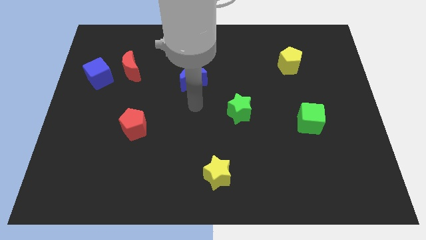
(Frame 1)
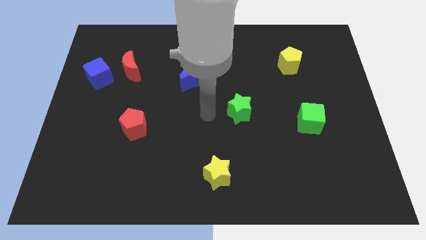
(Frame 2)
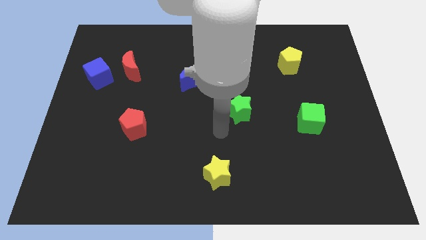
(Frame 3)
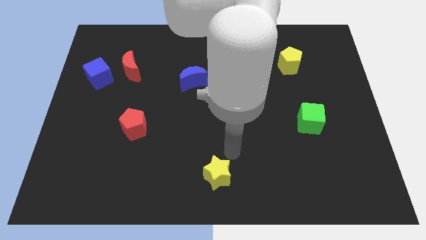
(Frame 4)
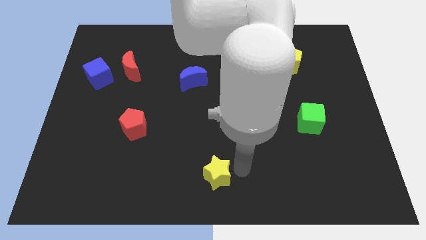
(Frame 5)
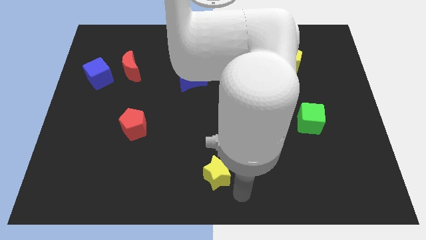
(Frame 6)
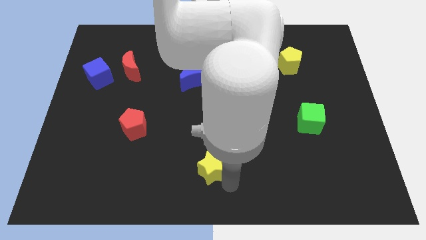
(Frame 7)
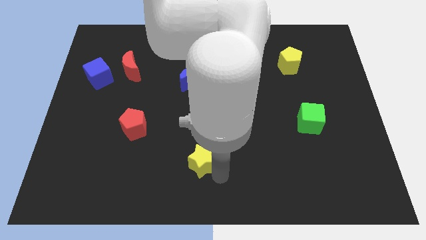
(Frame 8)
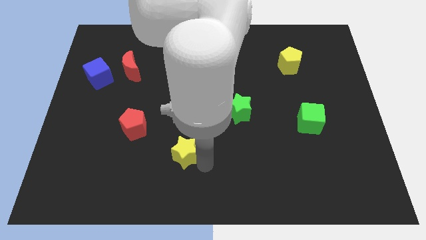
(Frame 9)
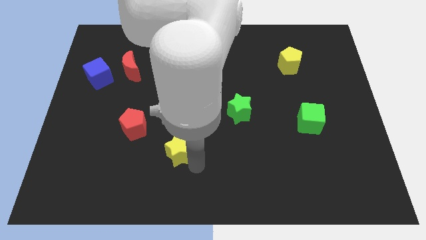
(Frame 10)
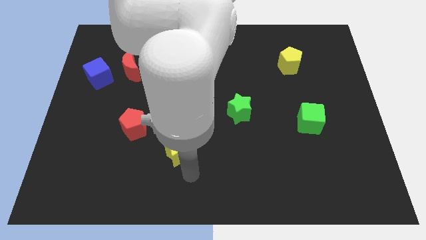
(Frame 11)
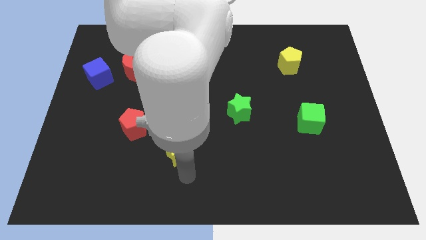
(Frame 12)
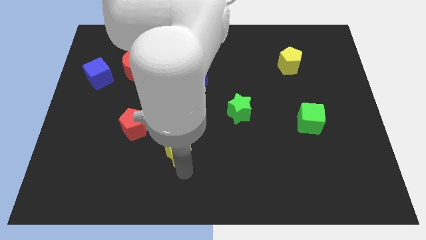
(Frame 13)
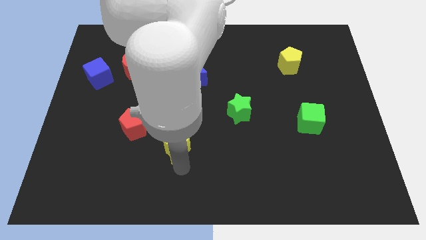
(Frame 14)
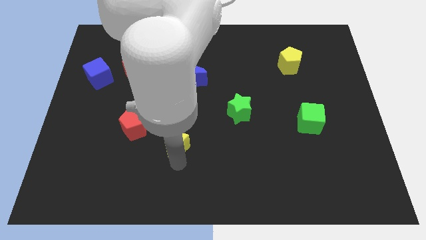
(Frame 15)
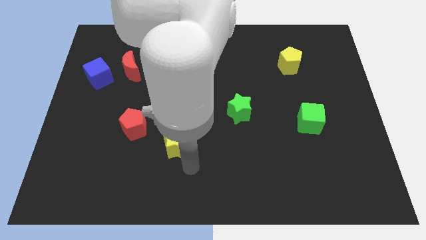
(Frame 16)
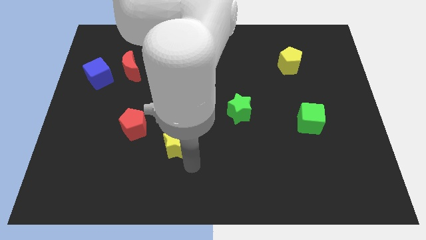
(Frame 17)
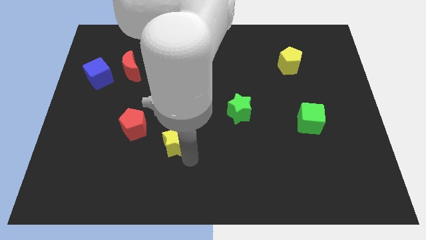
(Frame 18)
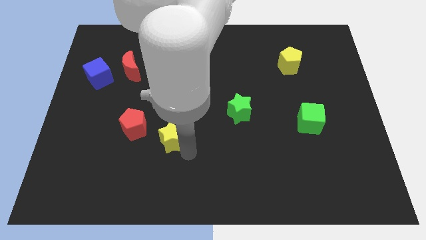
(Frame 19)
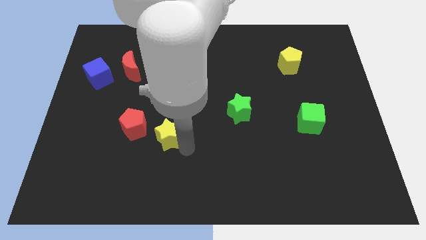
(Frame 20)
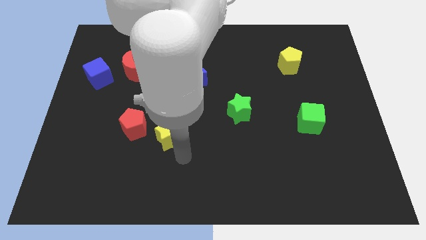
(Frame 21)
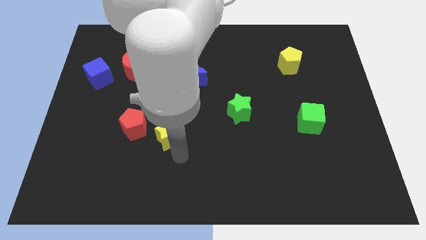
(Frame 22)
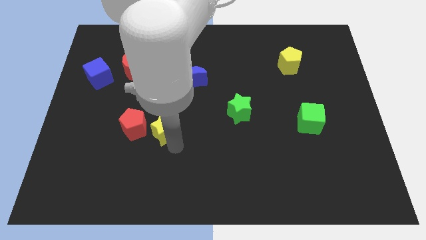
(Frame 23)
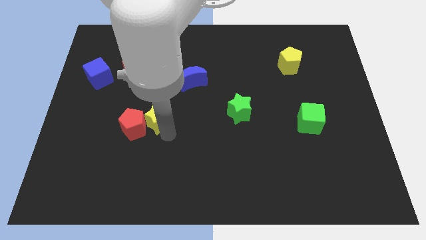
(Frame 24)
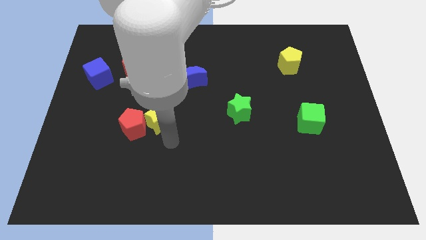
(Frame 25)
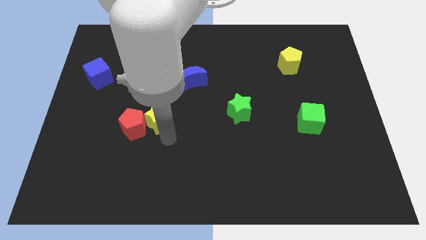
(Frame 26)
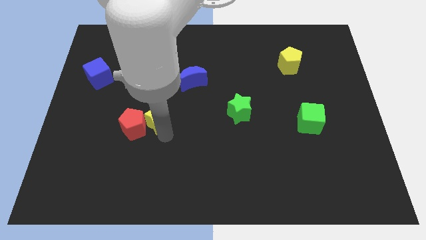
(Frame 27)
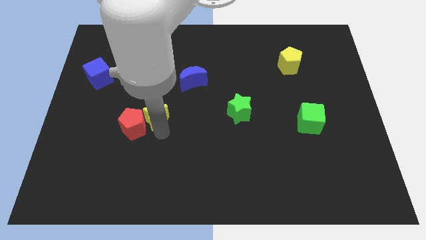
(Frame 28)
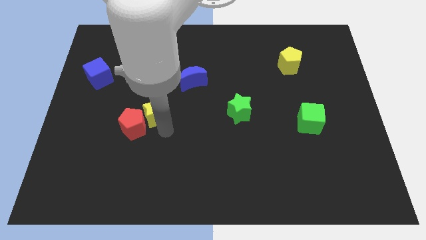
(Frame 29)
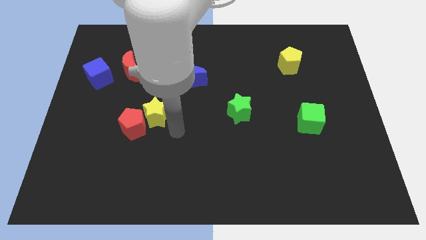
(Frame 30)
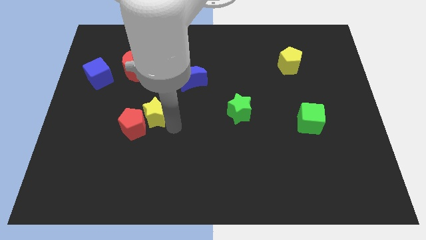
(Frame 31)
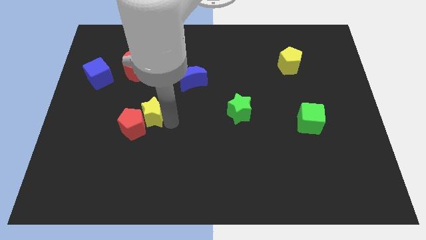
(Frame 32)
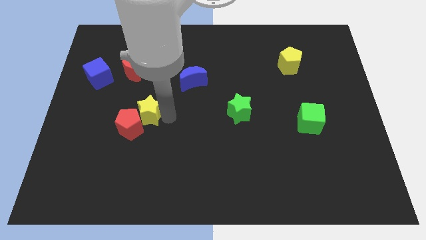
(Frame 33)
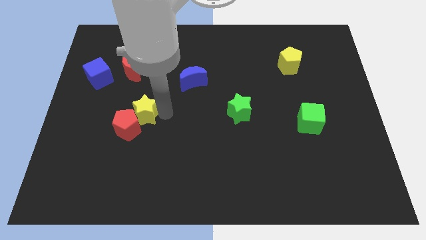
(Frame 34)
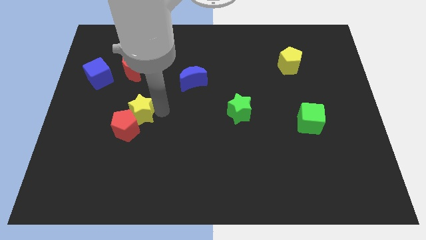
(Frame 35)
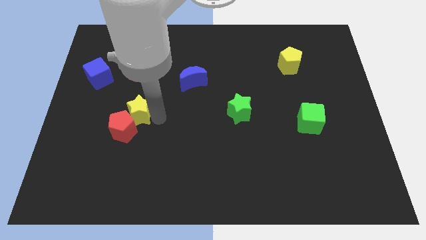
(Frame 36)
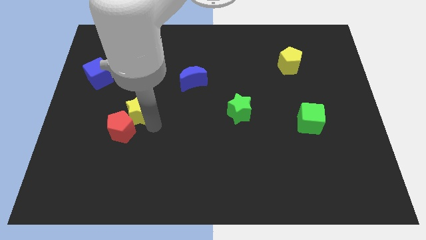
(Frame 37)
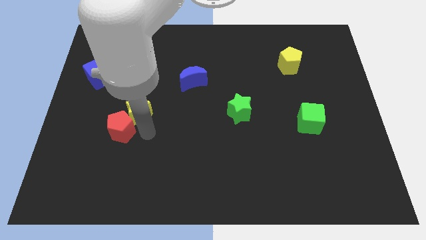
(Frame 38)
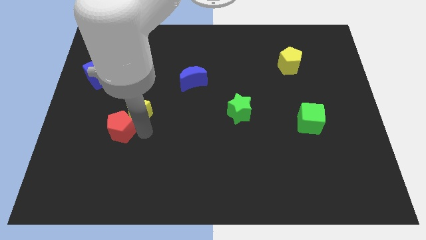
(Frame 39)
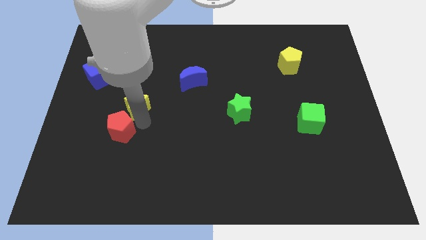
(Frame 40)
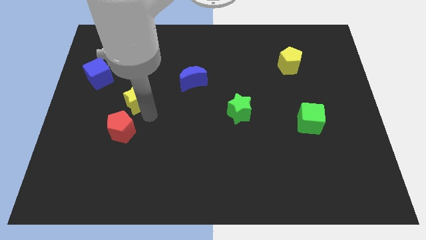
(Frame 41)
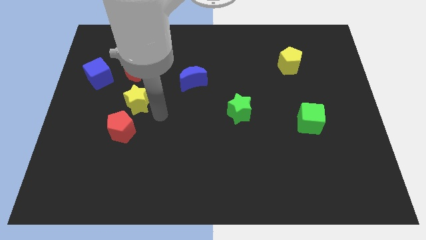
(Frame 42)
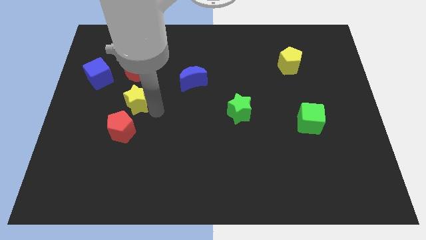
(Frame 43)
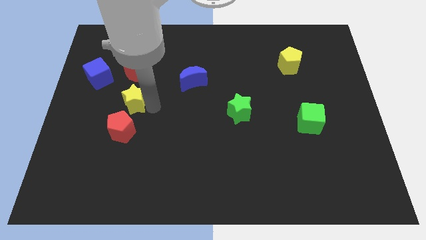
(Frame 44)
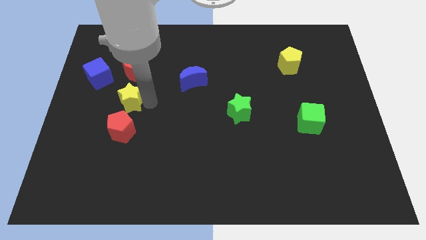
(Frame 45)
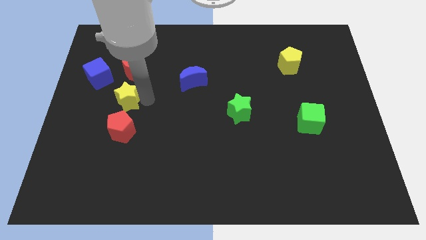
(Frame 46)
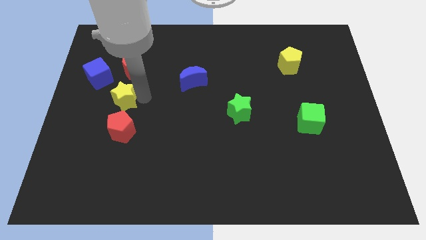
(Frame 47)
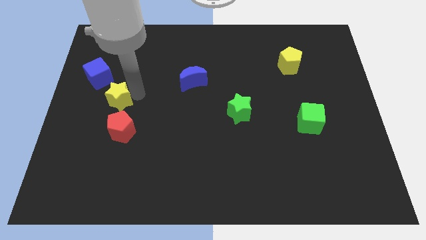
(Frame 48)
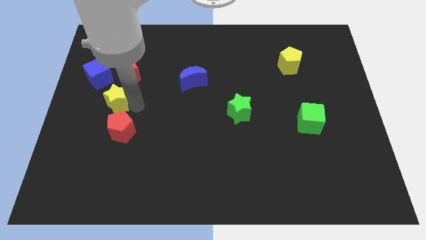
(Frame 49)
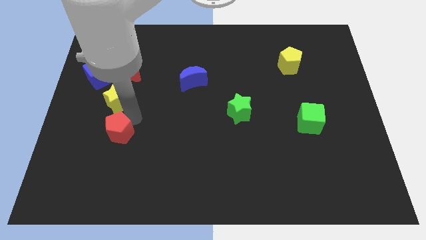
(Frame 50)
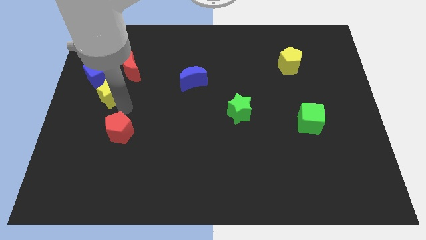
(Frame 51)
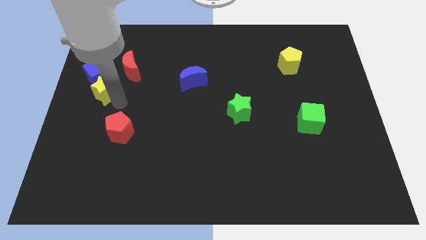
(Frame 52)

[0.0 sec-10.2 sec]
put the yellow star next to the blue cube

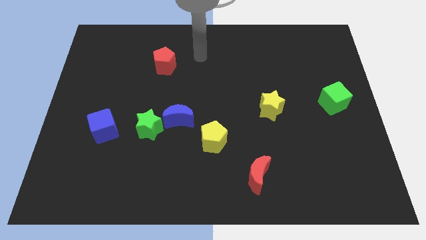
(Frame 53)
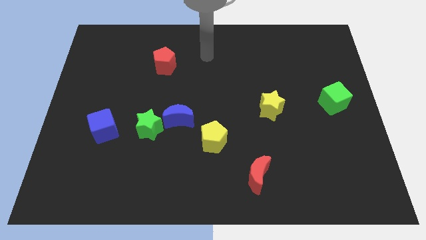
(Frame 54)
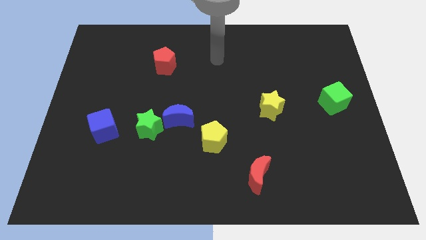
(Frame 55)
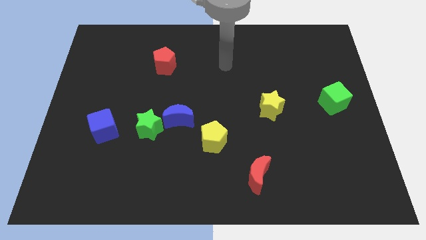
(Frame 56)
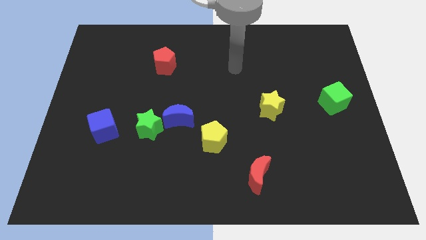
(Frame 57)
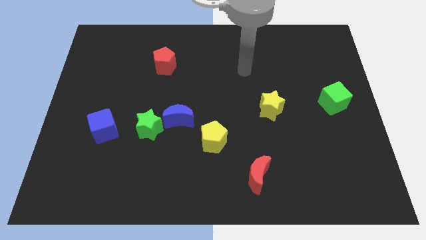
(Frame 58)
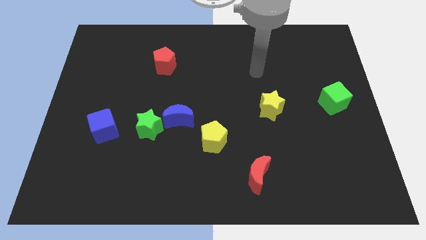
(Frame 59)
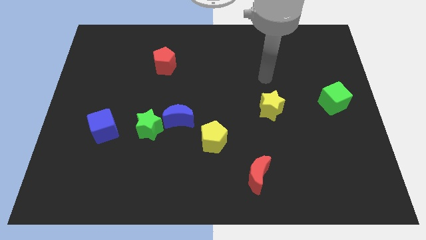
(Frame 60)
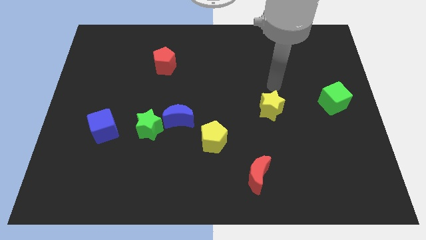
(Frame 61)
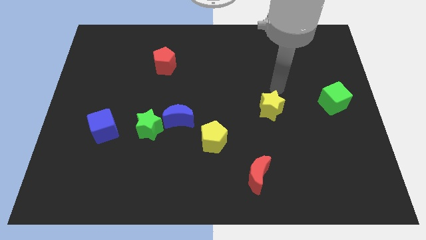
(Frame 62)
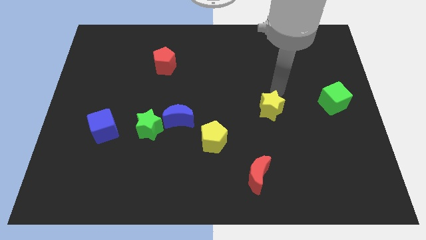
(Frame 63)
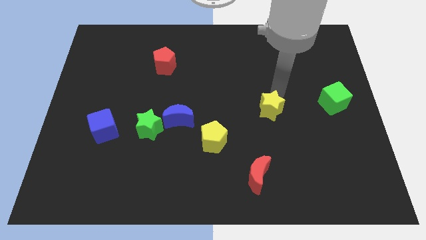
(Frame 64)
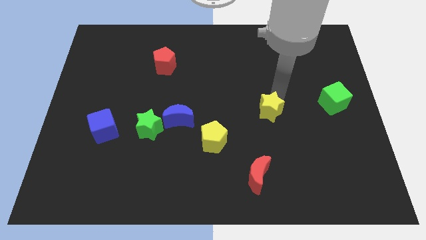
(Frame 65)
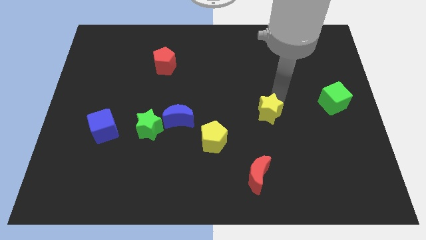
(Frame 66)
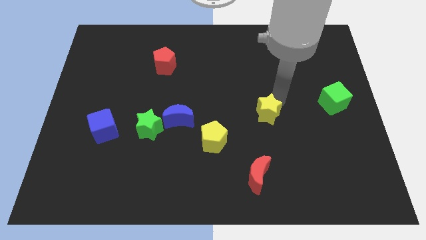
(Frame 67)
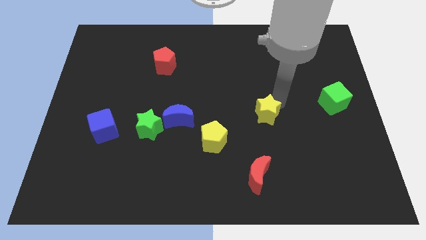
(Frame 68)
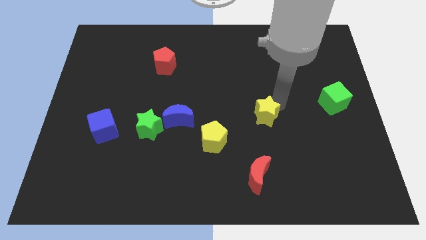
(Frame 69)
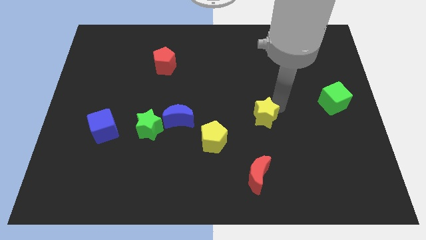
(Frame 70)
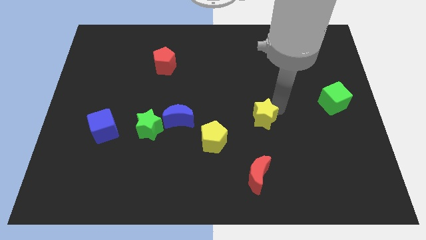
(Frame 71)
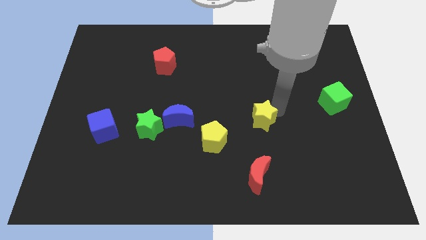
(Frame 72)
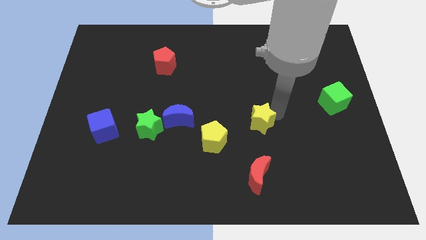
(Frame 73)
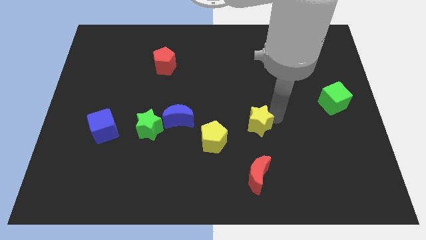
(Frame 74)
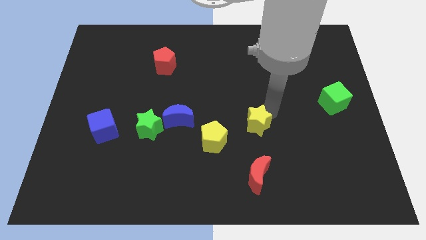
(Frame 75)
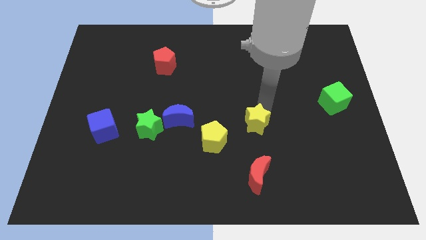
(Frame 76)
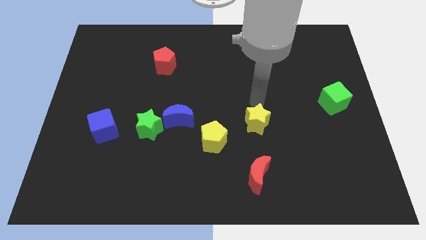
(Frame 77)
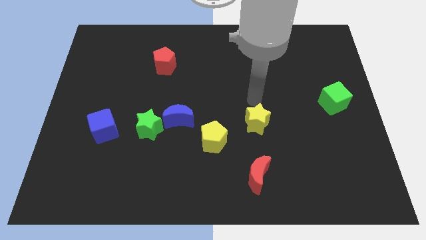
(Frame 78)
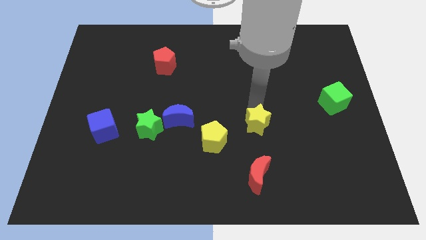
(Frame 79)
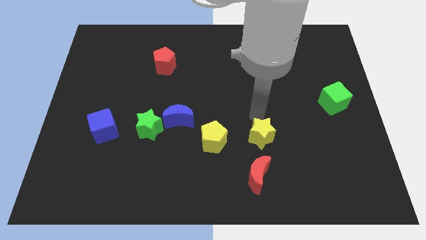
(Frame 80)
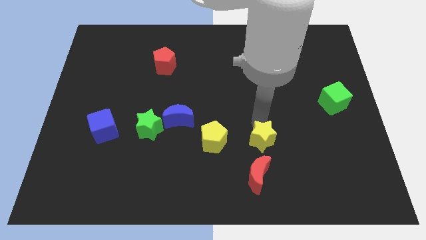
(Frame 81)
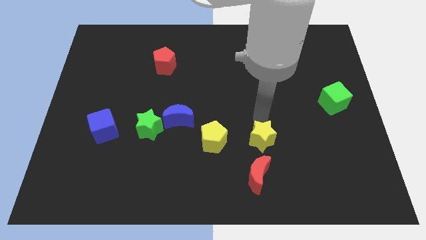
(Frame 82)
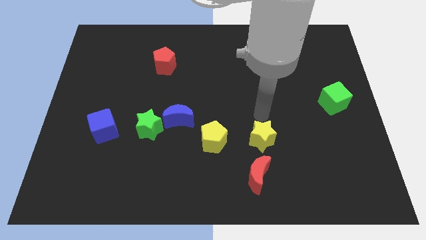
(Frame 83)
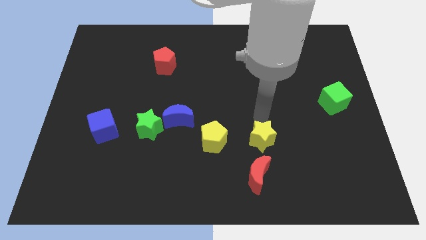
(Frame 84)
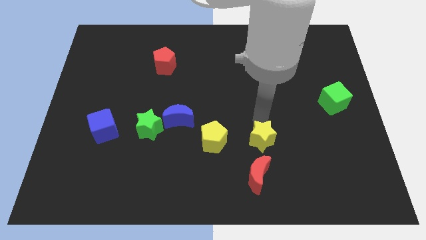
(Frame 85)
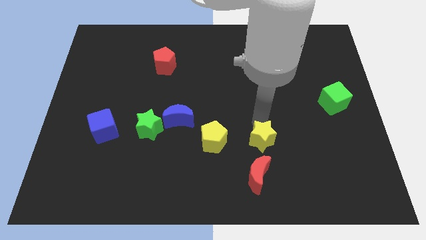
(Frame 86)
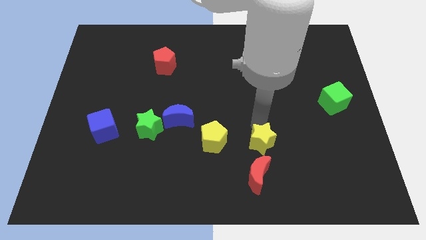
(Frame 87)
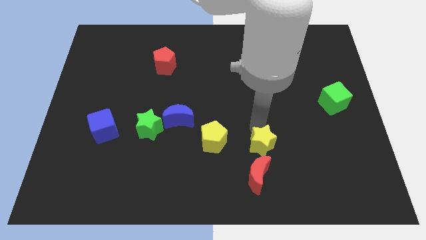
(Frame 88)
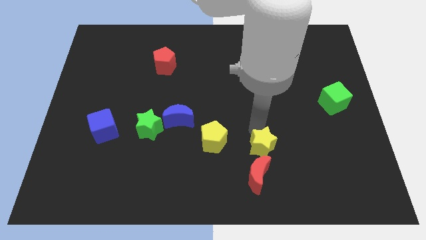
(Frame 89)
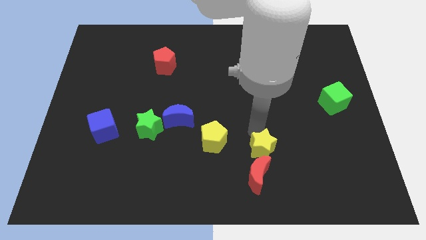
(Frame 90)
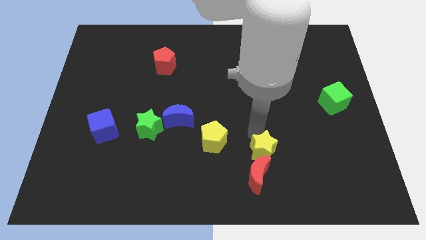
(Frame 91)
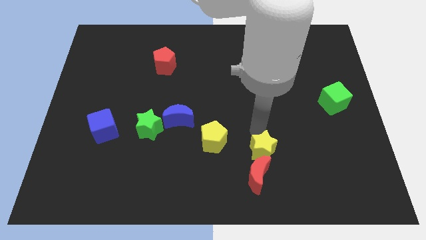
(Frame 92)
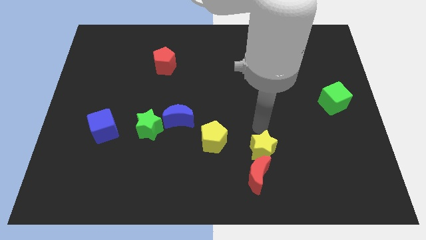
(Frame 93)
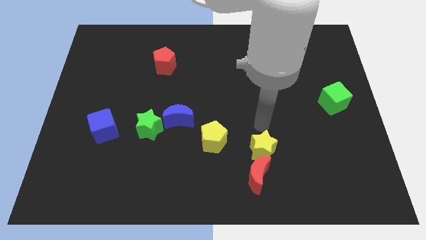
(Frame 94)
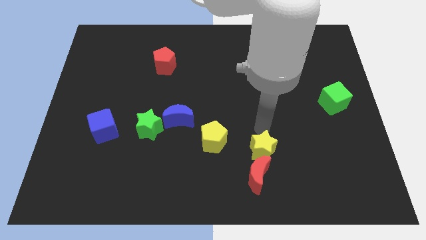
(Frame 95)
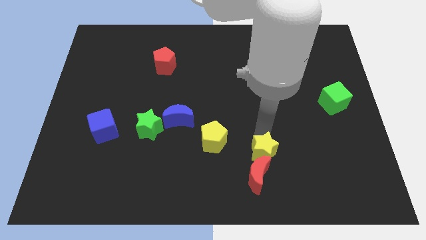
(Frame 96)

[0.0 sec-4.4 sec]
put the yellow star close to the red moon
